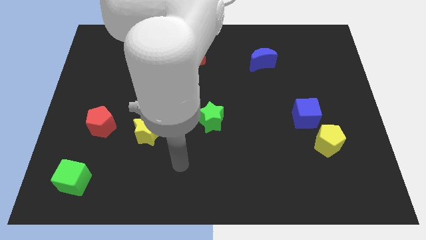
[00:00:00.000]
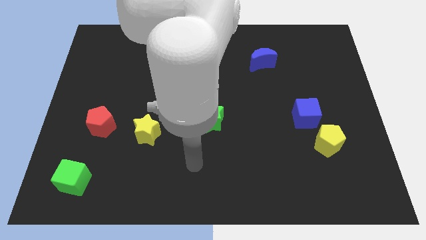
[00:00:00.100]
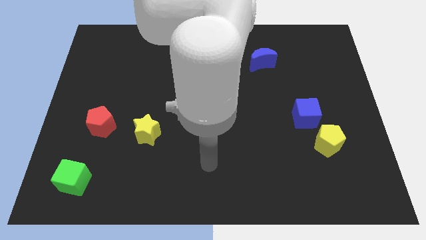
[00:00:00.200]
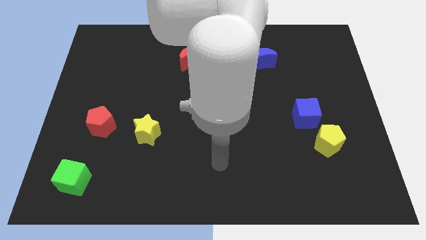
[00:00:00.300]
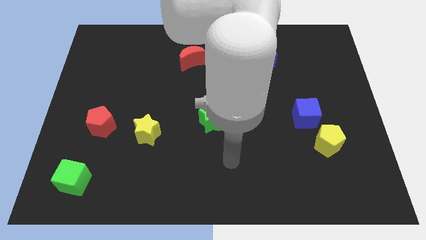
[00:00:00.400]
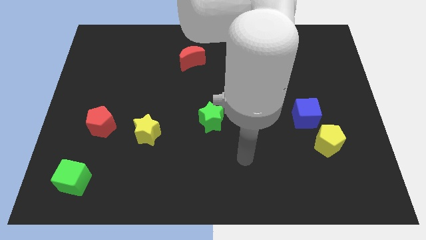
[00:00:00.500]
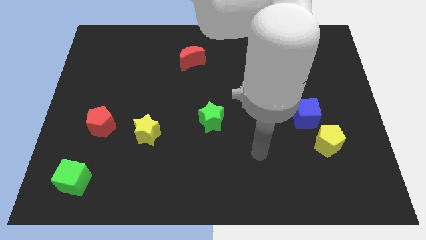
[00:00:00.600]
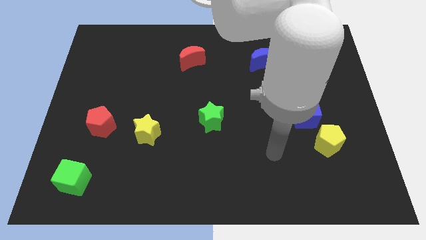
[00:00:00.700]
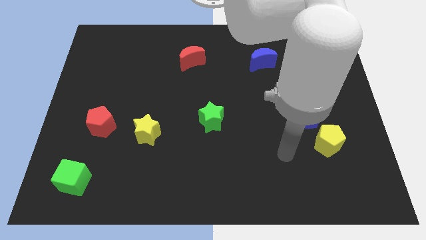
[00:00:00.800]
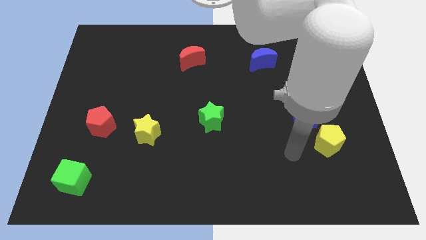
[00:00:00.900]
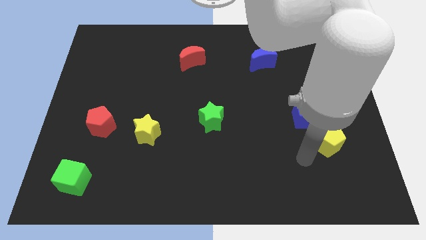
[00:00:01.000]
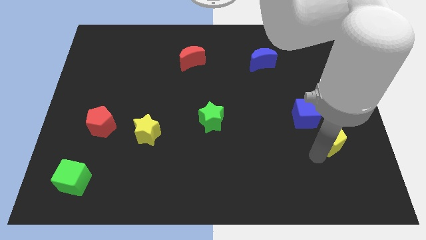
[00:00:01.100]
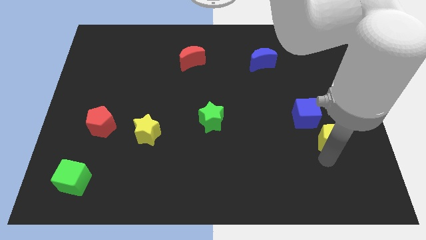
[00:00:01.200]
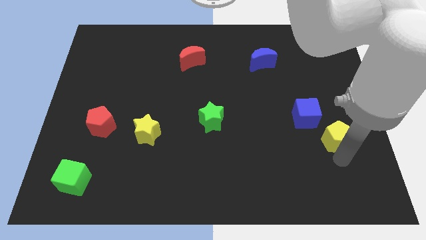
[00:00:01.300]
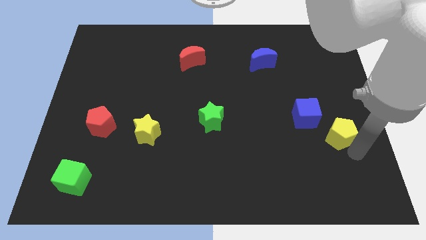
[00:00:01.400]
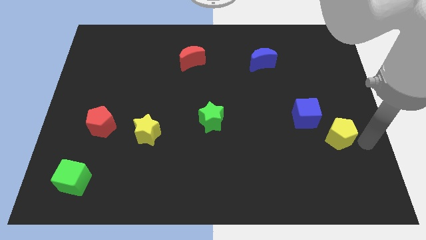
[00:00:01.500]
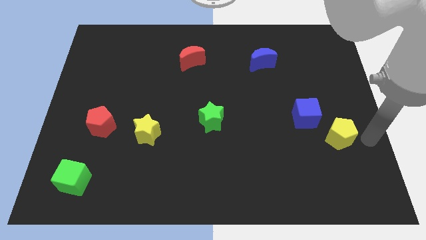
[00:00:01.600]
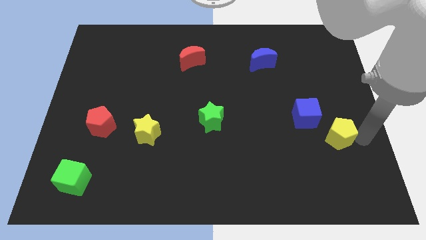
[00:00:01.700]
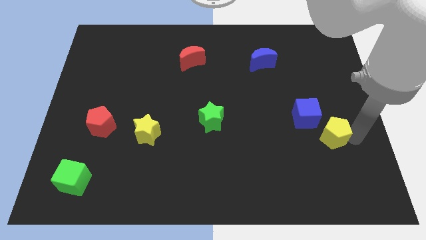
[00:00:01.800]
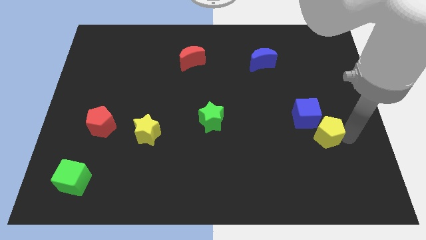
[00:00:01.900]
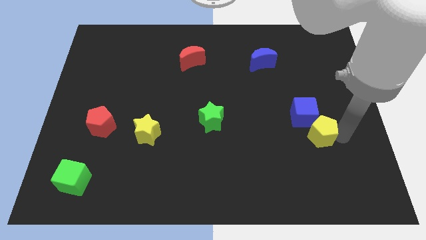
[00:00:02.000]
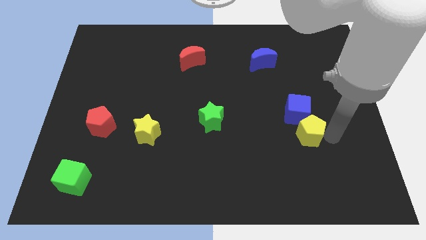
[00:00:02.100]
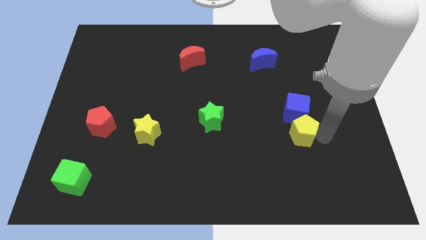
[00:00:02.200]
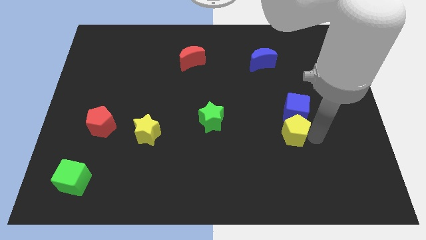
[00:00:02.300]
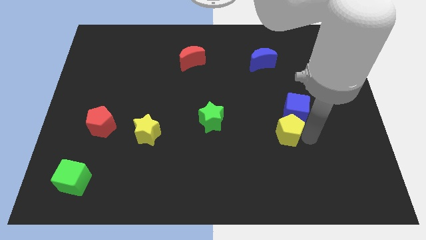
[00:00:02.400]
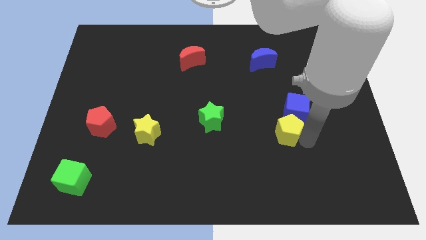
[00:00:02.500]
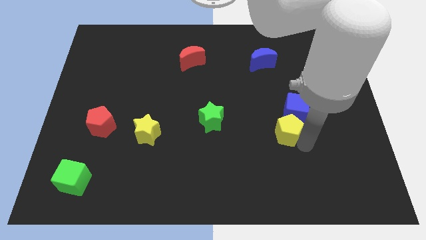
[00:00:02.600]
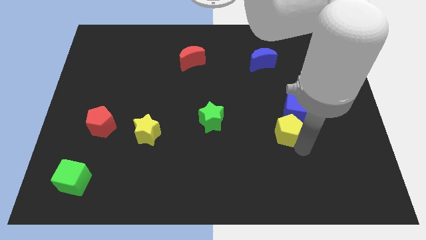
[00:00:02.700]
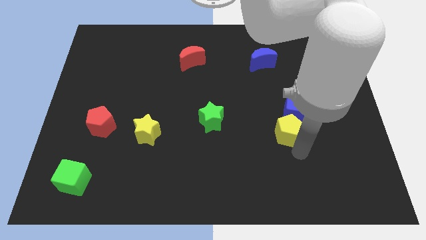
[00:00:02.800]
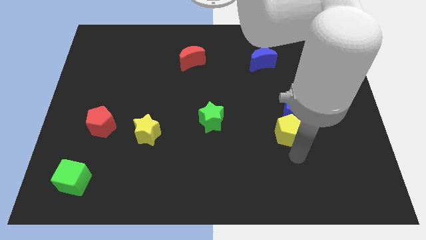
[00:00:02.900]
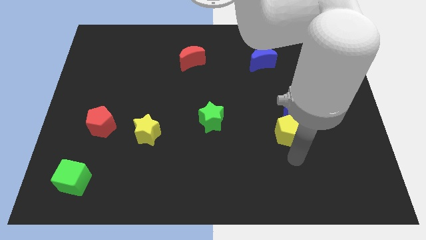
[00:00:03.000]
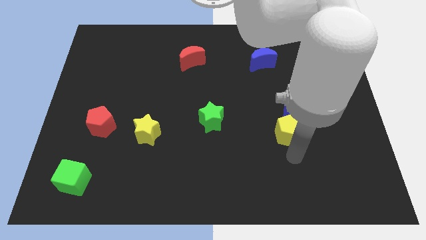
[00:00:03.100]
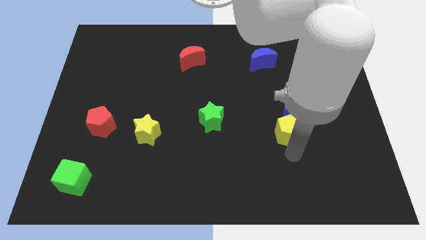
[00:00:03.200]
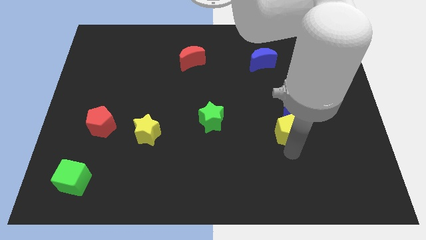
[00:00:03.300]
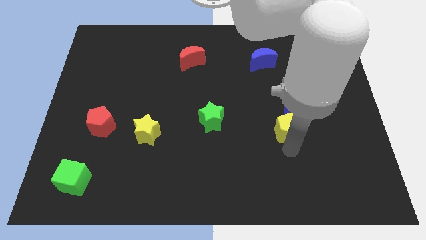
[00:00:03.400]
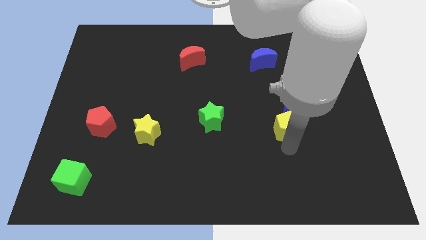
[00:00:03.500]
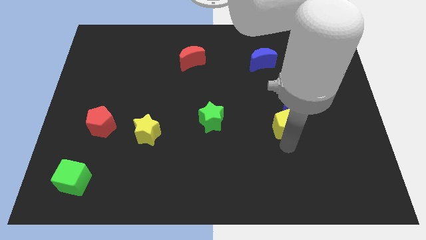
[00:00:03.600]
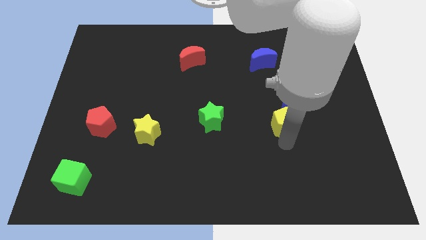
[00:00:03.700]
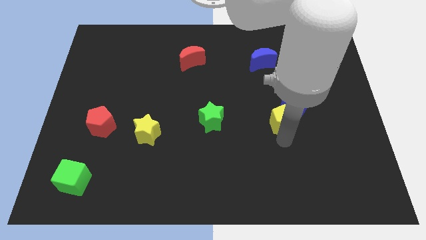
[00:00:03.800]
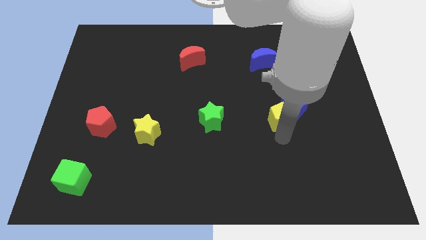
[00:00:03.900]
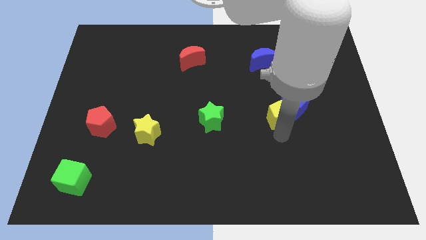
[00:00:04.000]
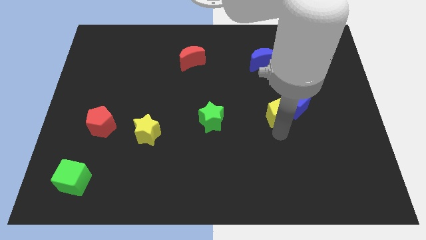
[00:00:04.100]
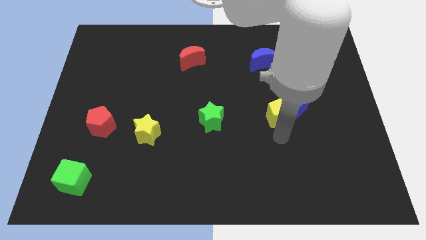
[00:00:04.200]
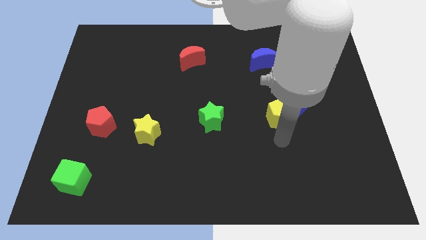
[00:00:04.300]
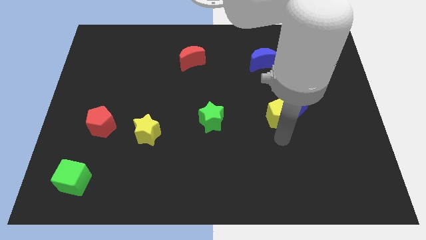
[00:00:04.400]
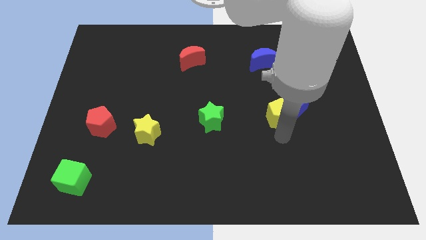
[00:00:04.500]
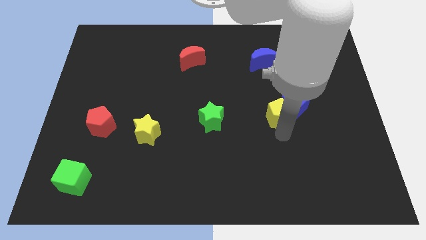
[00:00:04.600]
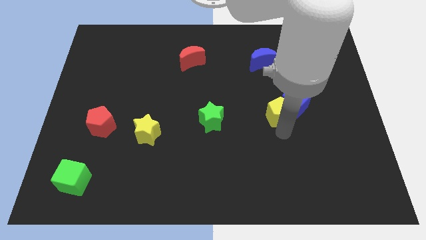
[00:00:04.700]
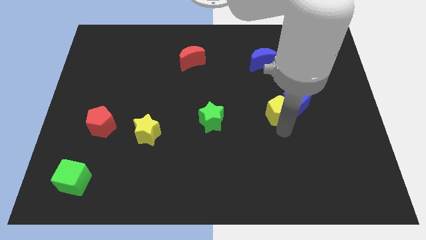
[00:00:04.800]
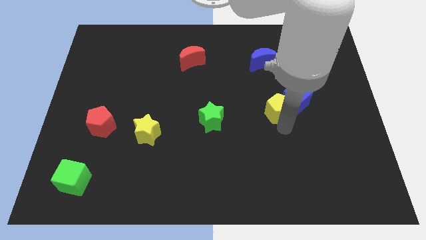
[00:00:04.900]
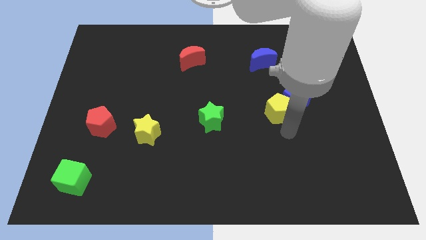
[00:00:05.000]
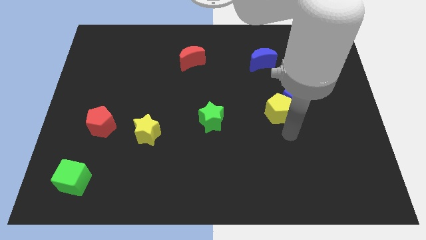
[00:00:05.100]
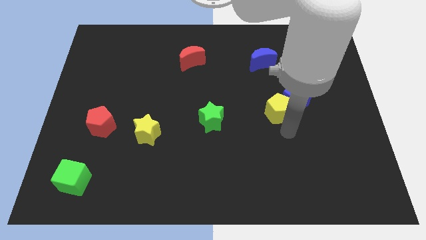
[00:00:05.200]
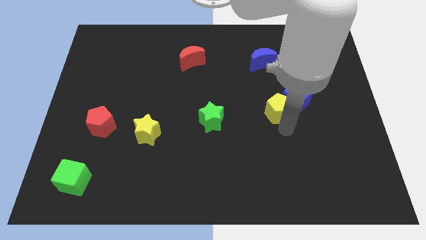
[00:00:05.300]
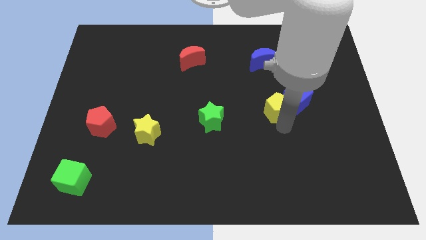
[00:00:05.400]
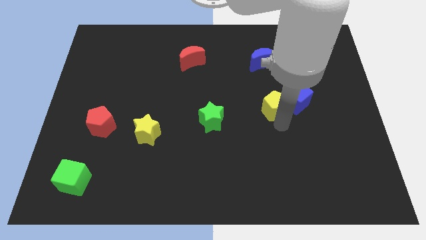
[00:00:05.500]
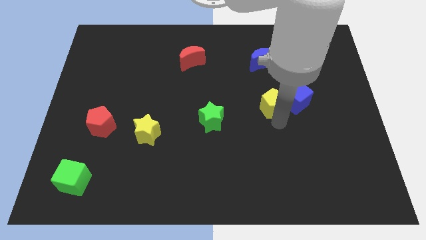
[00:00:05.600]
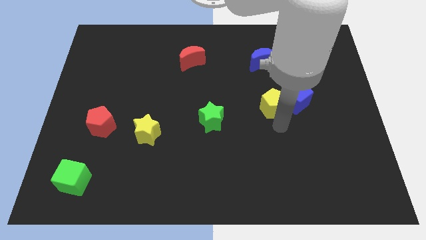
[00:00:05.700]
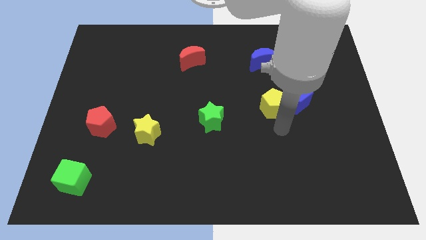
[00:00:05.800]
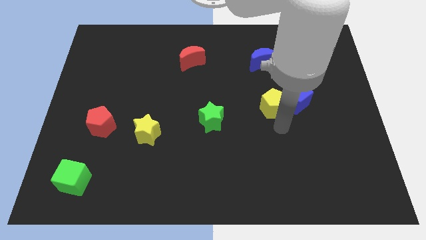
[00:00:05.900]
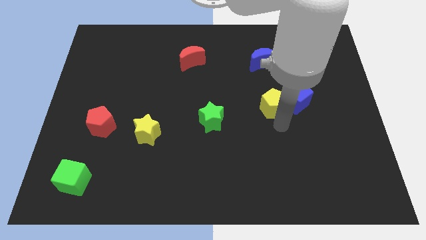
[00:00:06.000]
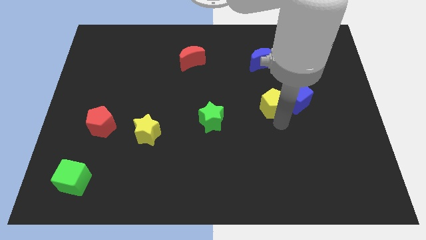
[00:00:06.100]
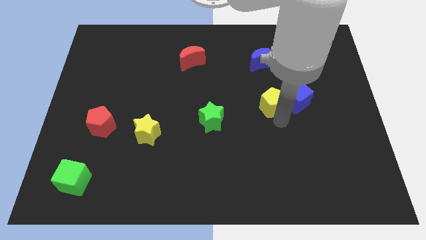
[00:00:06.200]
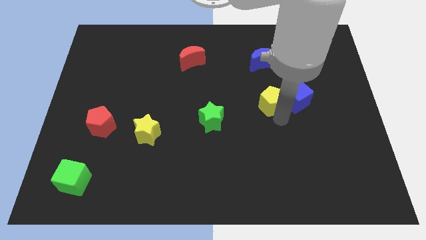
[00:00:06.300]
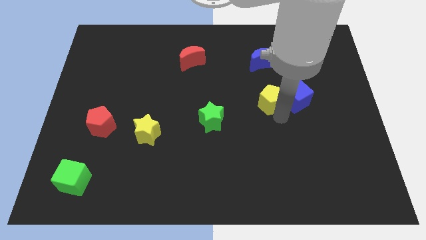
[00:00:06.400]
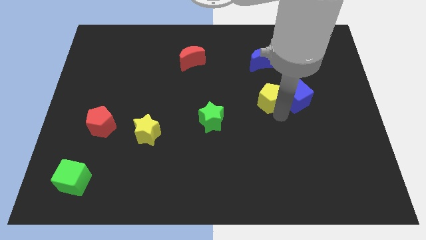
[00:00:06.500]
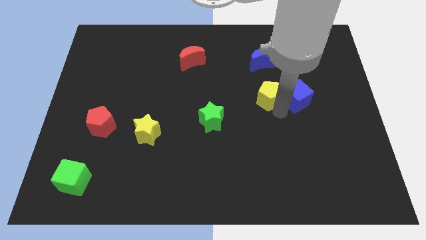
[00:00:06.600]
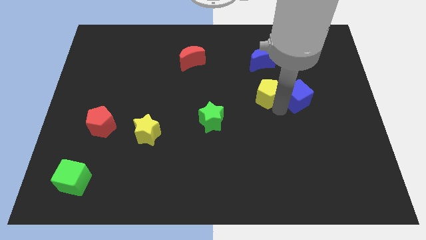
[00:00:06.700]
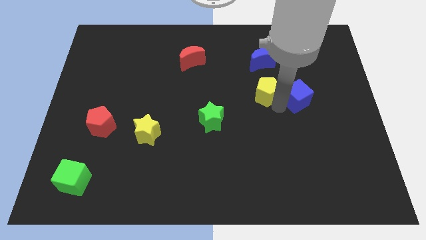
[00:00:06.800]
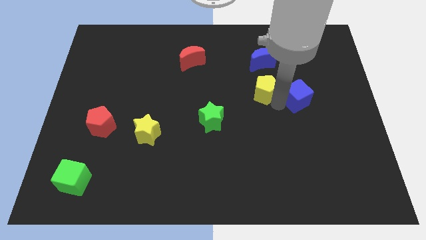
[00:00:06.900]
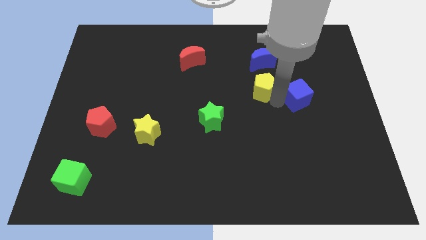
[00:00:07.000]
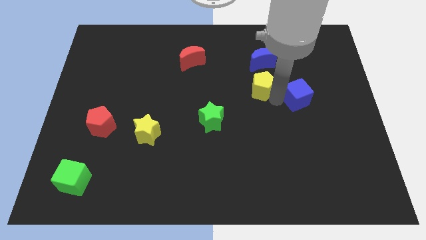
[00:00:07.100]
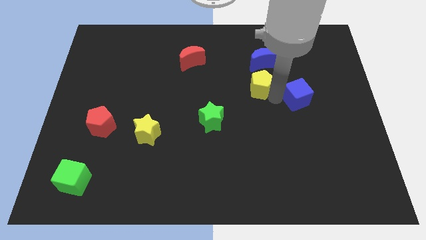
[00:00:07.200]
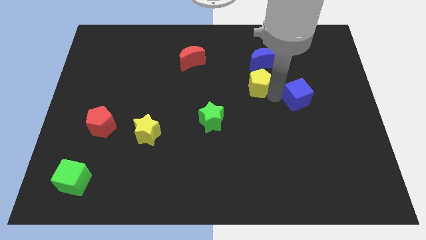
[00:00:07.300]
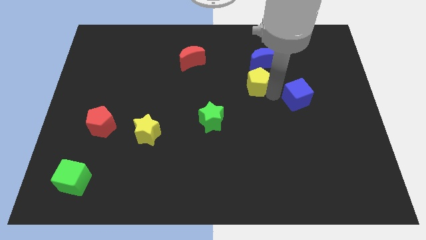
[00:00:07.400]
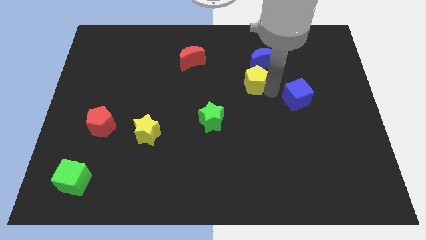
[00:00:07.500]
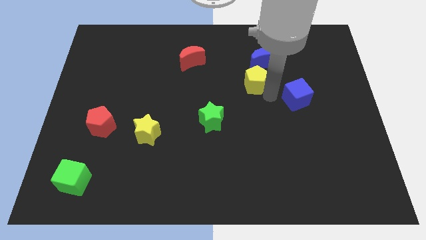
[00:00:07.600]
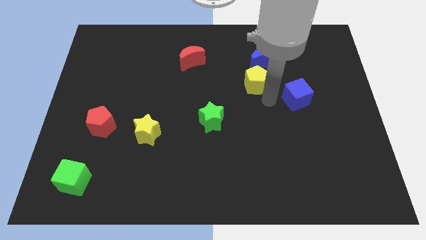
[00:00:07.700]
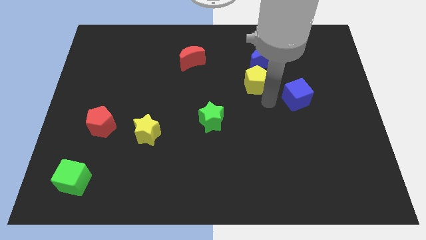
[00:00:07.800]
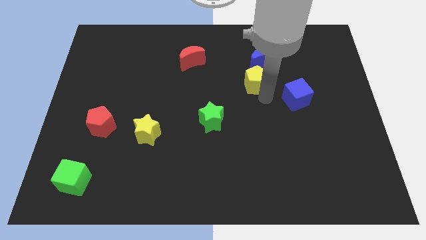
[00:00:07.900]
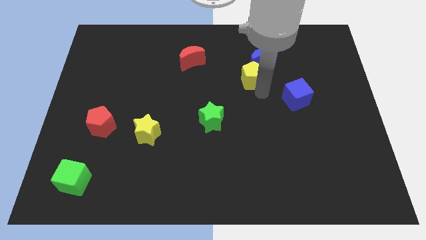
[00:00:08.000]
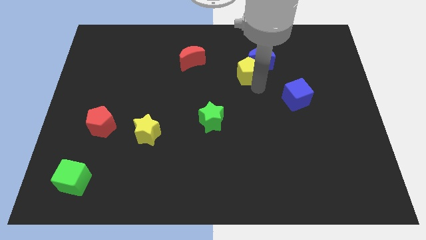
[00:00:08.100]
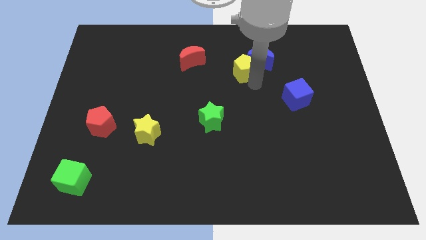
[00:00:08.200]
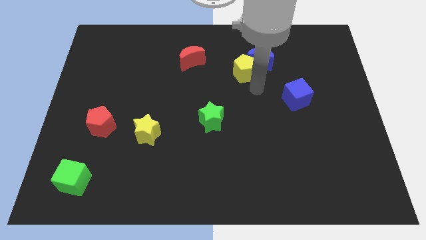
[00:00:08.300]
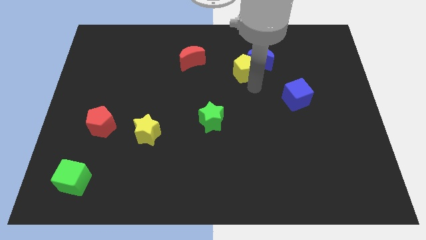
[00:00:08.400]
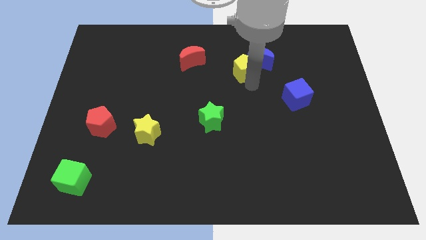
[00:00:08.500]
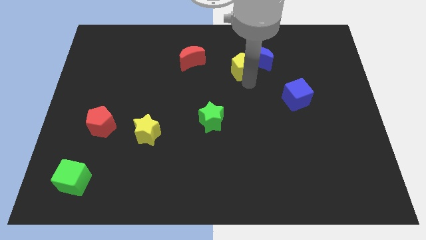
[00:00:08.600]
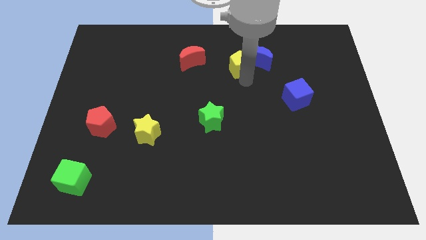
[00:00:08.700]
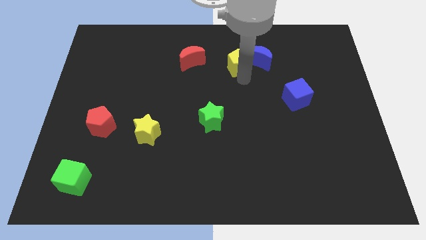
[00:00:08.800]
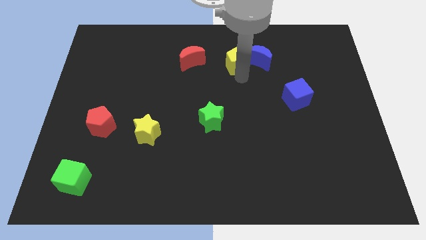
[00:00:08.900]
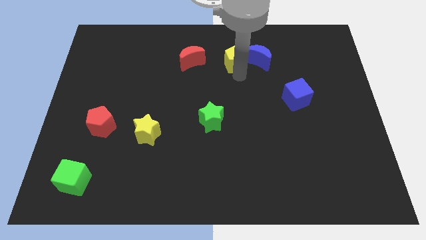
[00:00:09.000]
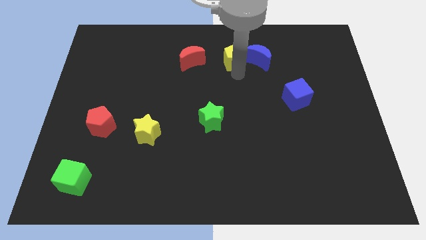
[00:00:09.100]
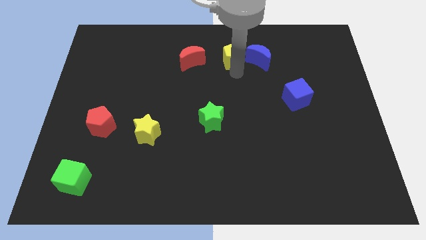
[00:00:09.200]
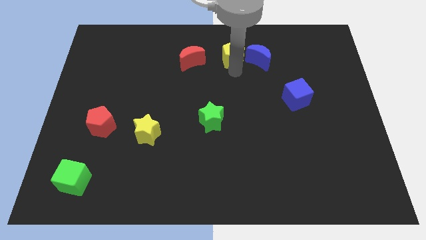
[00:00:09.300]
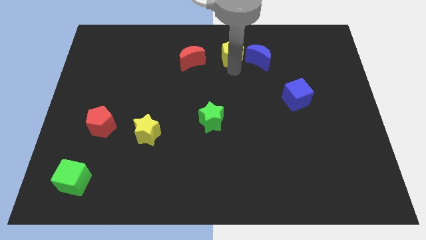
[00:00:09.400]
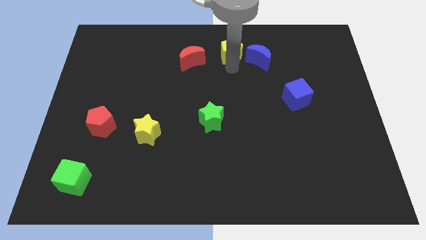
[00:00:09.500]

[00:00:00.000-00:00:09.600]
push the yellow pentagon to the top side
